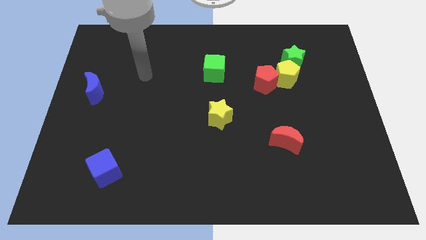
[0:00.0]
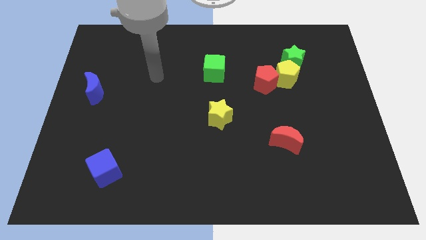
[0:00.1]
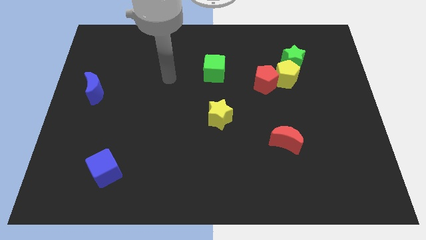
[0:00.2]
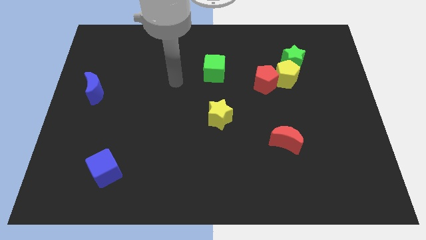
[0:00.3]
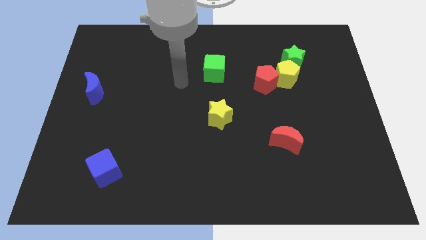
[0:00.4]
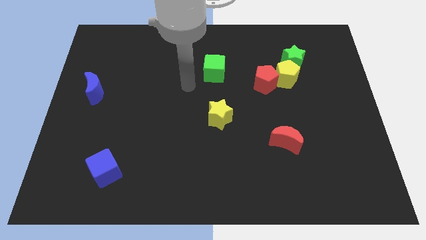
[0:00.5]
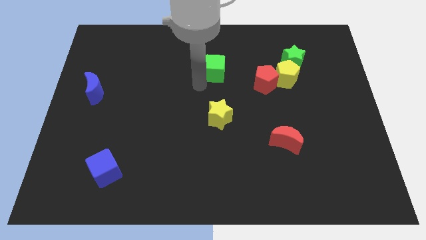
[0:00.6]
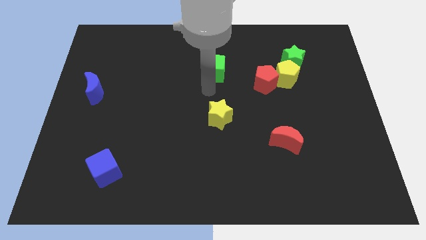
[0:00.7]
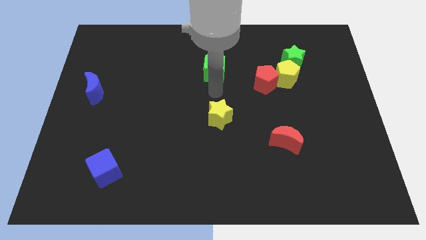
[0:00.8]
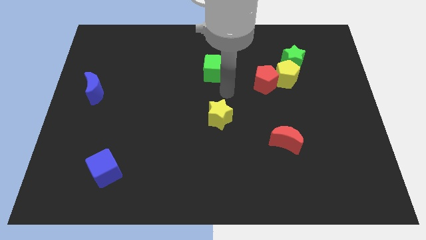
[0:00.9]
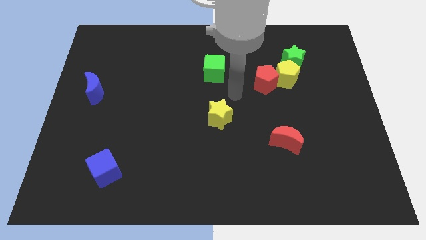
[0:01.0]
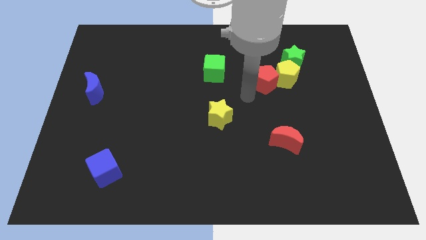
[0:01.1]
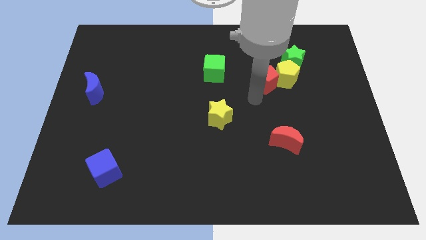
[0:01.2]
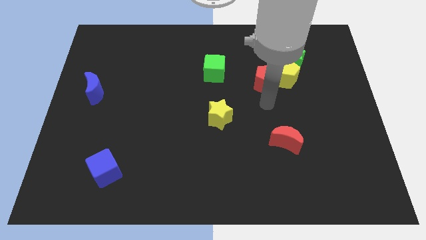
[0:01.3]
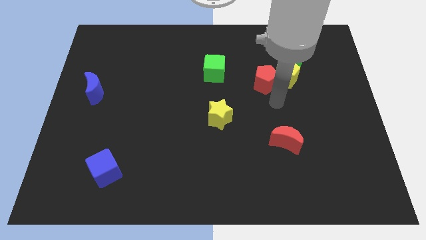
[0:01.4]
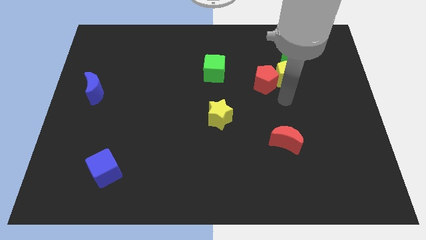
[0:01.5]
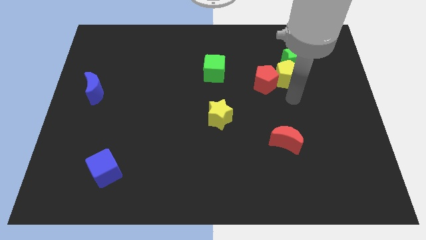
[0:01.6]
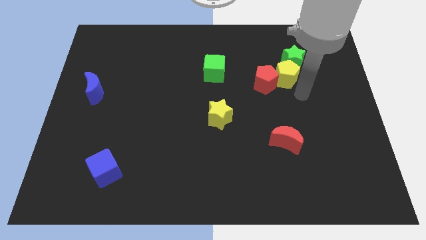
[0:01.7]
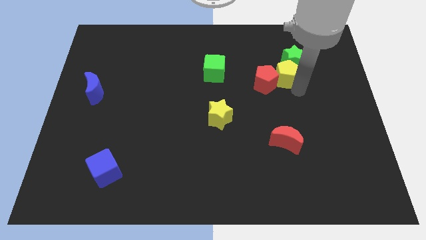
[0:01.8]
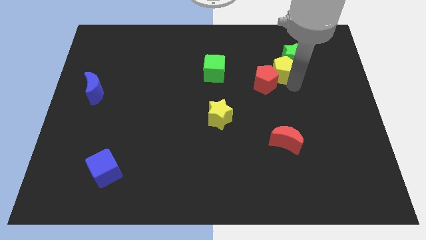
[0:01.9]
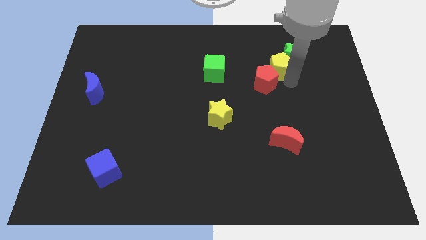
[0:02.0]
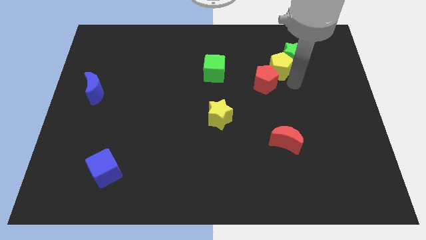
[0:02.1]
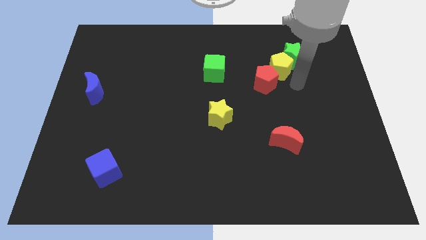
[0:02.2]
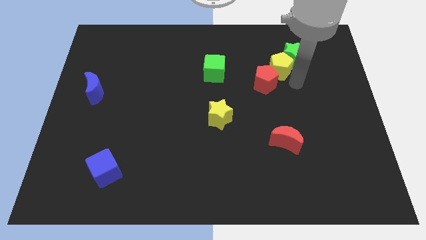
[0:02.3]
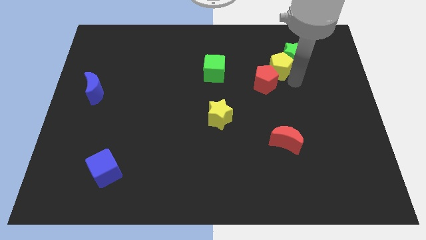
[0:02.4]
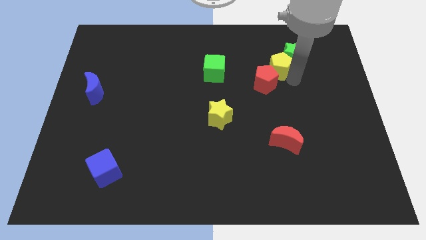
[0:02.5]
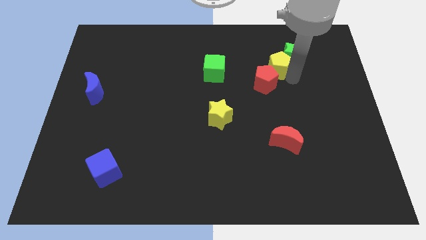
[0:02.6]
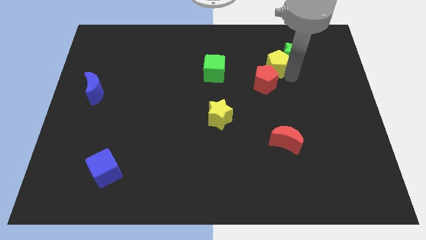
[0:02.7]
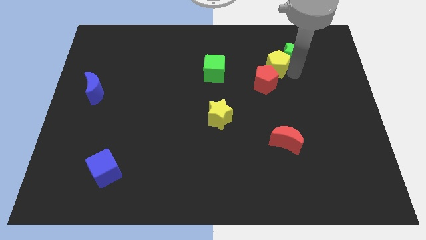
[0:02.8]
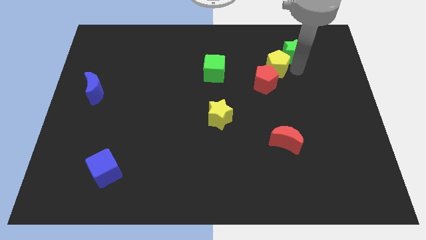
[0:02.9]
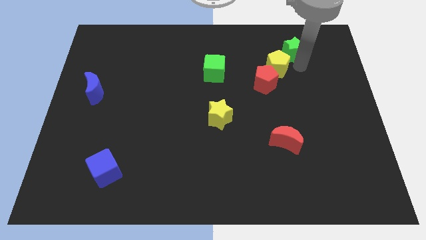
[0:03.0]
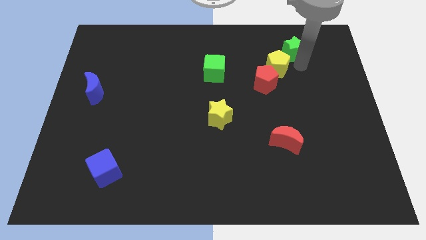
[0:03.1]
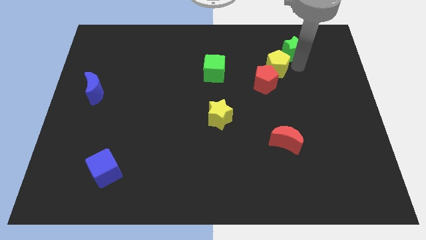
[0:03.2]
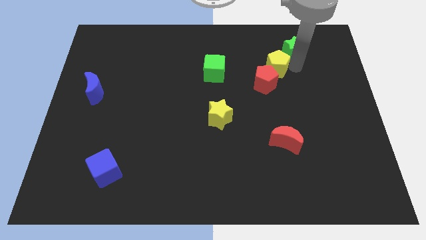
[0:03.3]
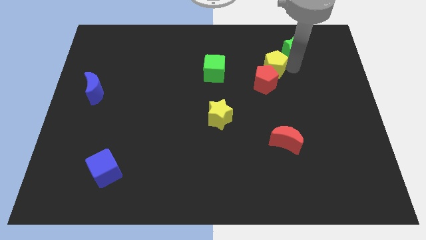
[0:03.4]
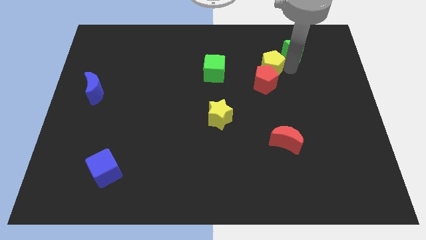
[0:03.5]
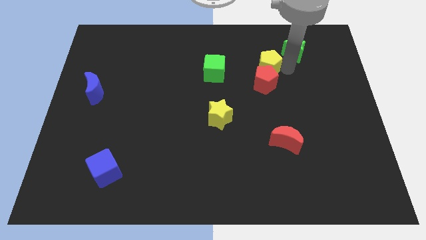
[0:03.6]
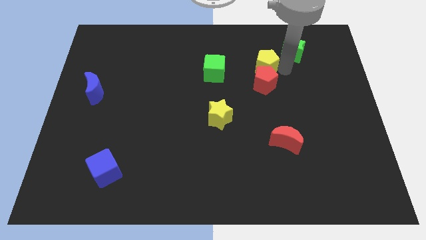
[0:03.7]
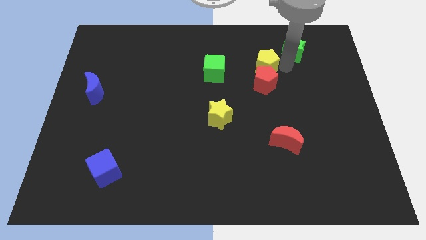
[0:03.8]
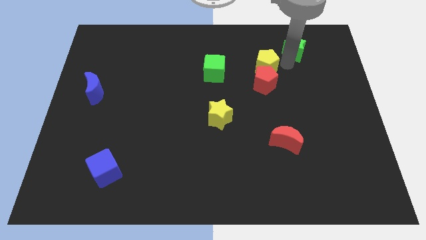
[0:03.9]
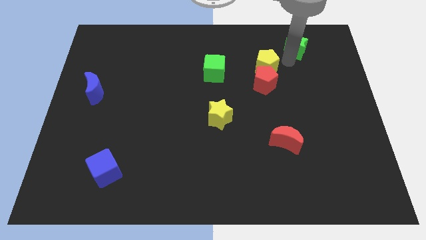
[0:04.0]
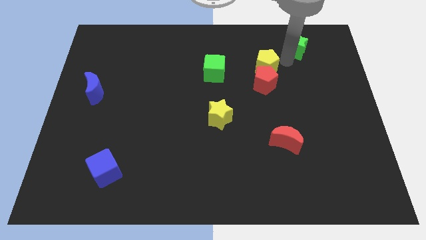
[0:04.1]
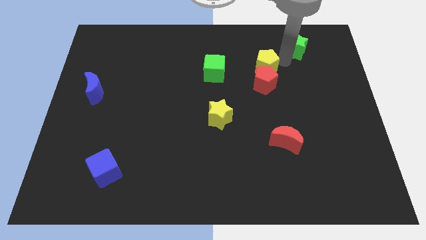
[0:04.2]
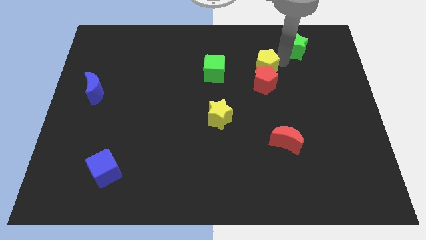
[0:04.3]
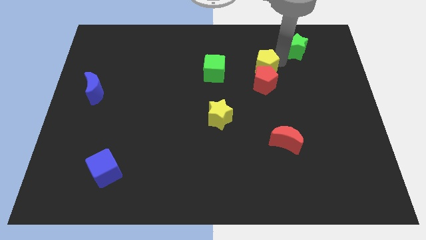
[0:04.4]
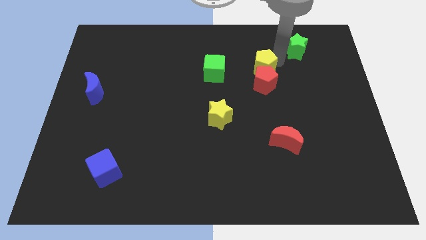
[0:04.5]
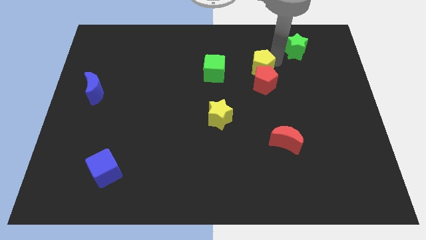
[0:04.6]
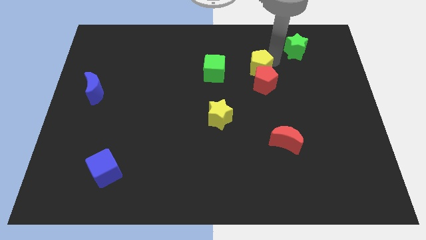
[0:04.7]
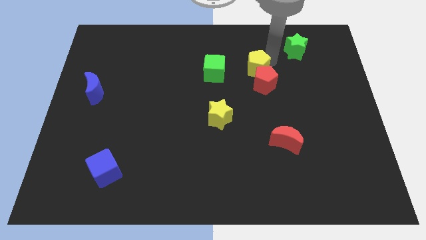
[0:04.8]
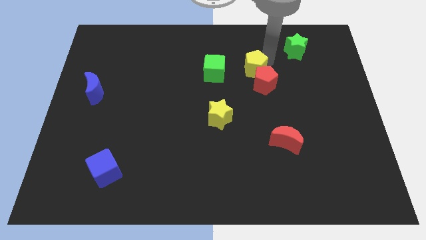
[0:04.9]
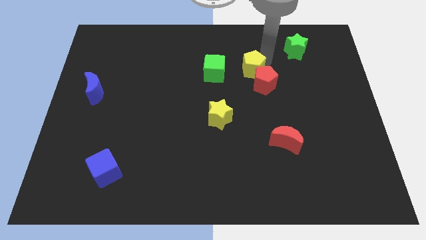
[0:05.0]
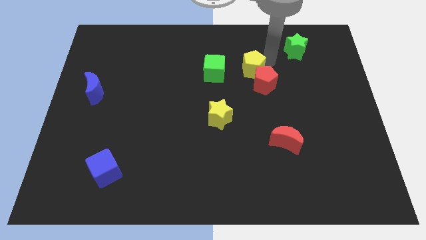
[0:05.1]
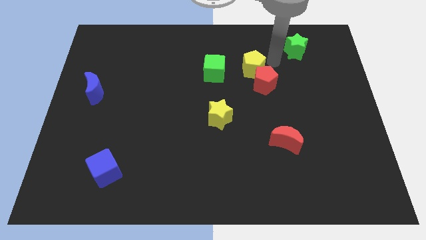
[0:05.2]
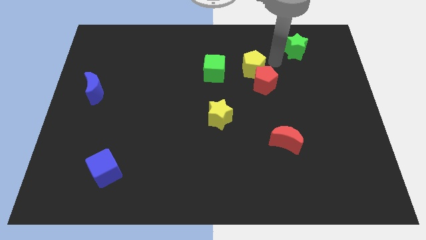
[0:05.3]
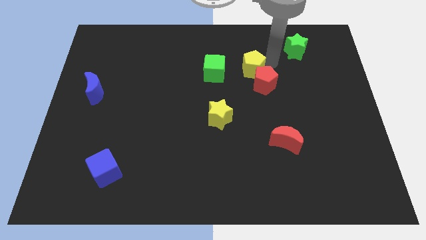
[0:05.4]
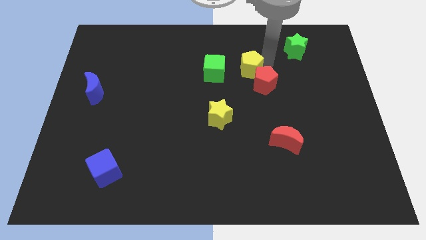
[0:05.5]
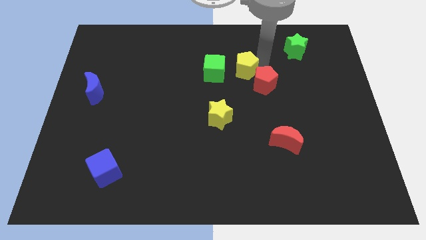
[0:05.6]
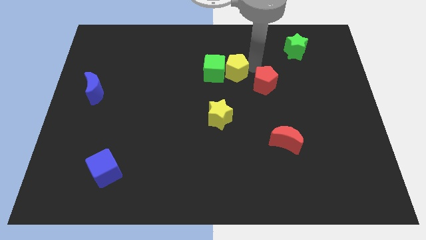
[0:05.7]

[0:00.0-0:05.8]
slide the yellow pentagon close to the green cube
